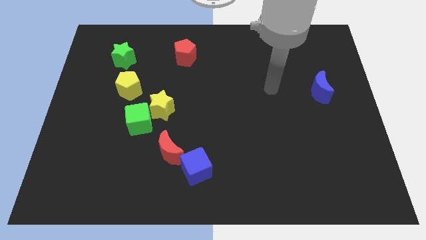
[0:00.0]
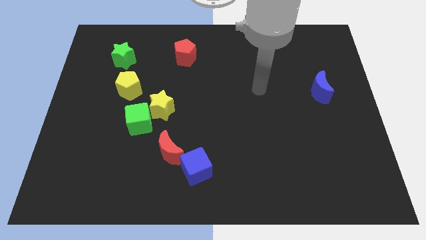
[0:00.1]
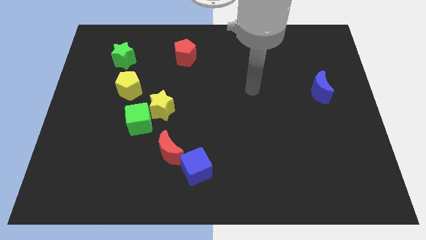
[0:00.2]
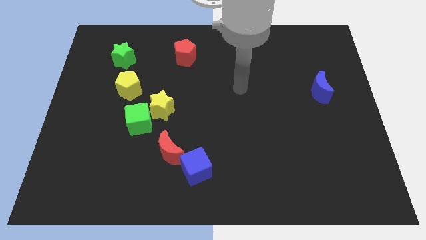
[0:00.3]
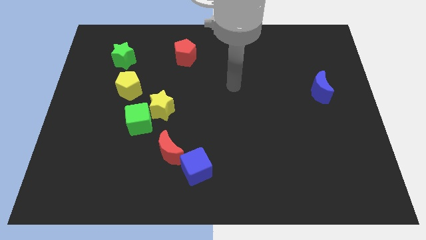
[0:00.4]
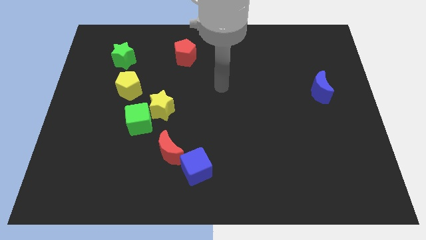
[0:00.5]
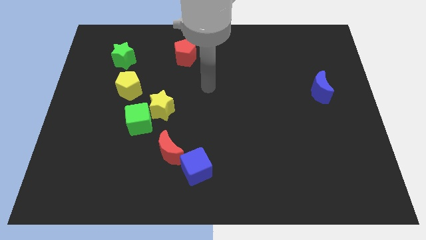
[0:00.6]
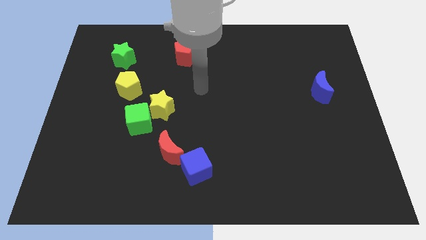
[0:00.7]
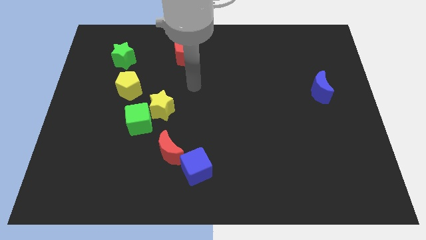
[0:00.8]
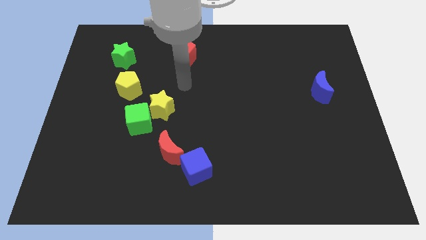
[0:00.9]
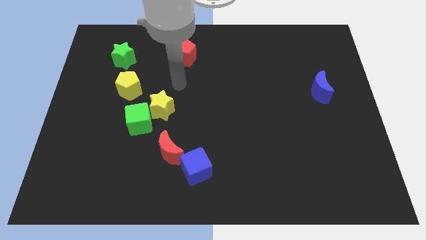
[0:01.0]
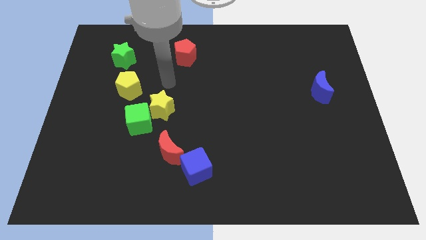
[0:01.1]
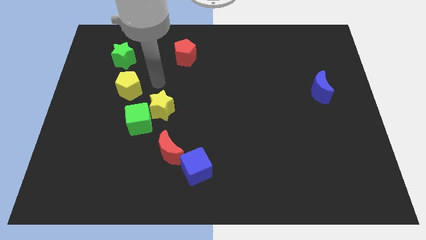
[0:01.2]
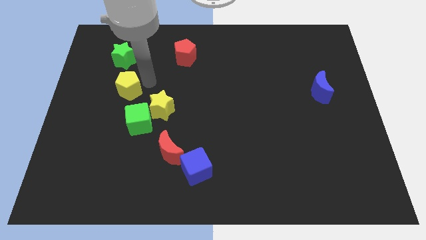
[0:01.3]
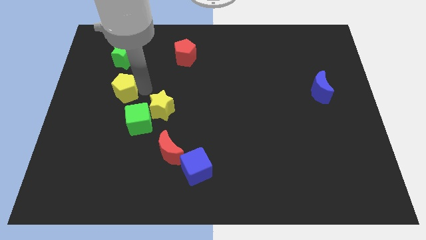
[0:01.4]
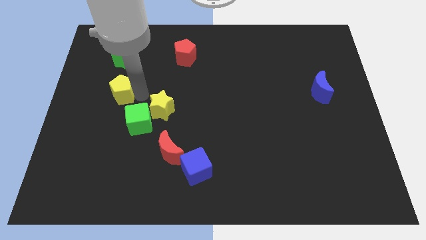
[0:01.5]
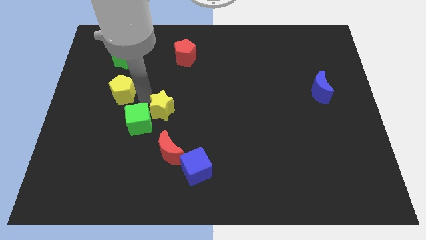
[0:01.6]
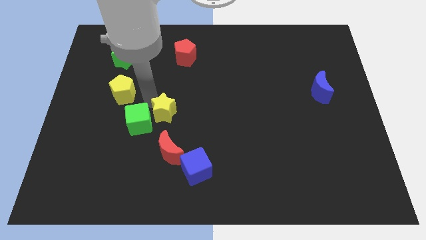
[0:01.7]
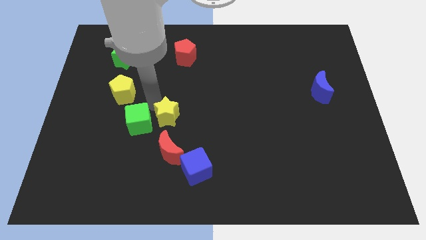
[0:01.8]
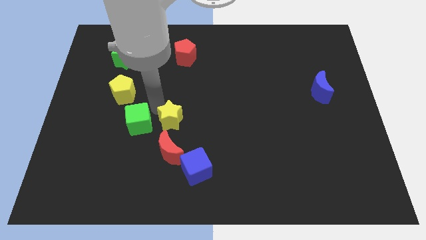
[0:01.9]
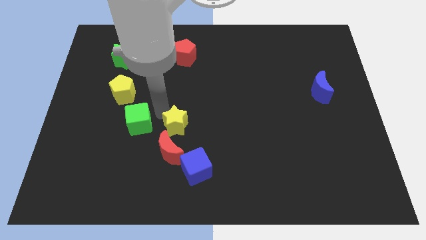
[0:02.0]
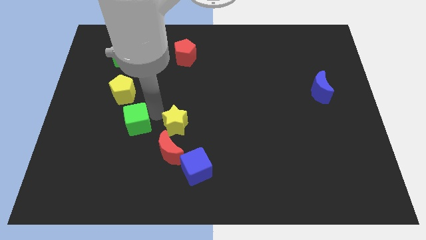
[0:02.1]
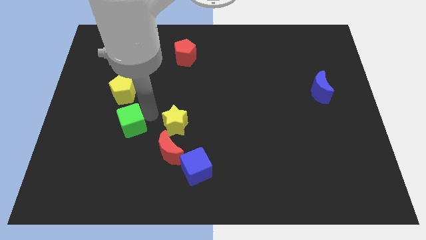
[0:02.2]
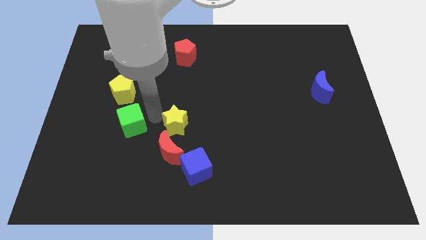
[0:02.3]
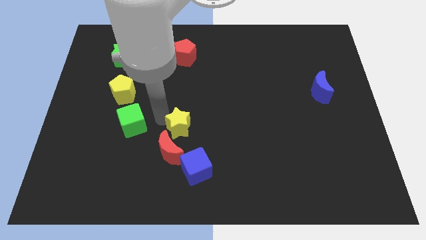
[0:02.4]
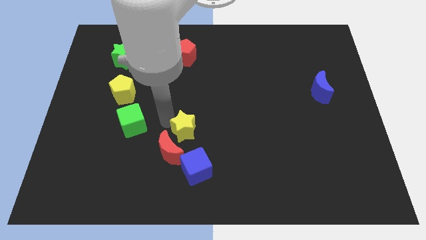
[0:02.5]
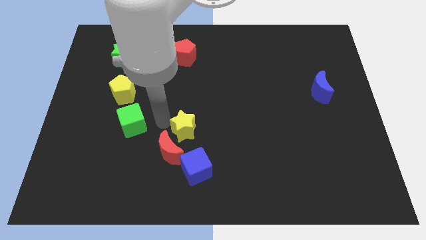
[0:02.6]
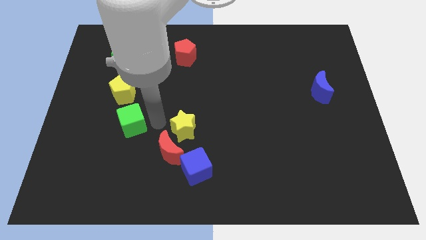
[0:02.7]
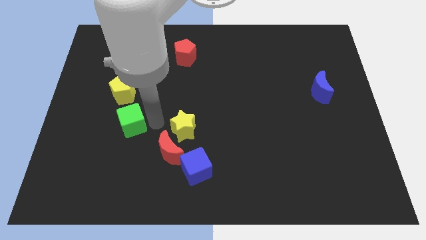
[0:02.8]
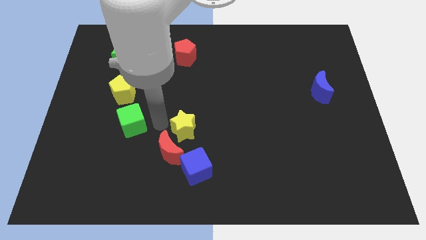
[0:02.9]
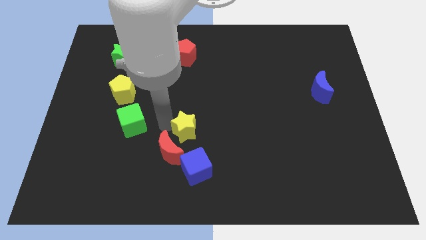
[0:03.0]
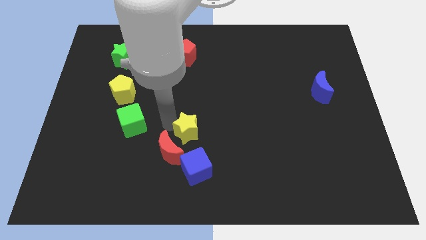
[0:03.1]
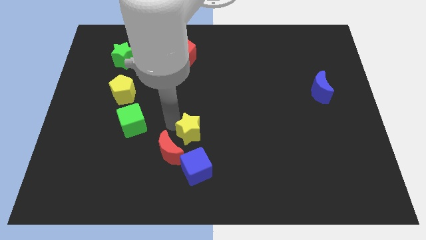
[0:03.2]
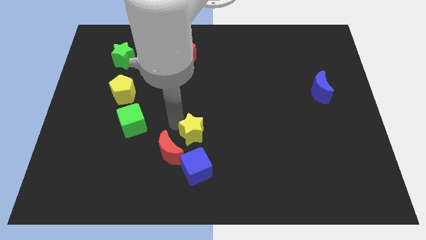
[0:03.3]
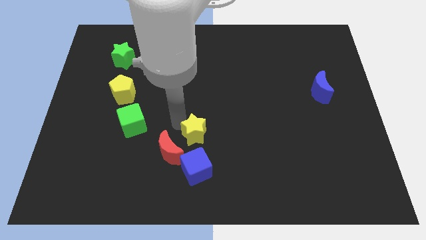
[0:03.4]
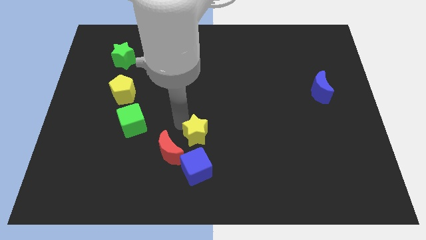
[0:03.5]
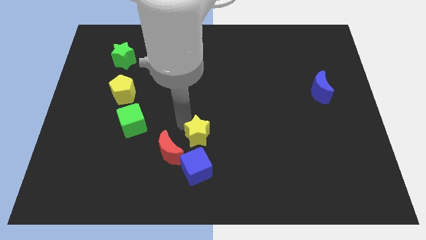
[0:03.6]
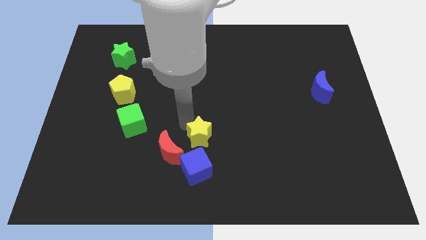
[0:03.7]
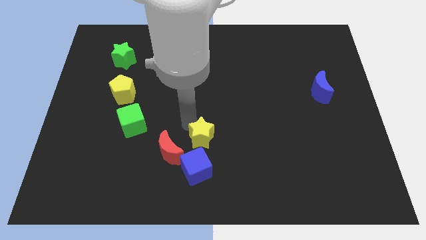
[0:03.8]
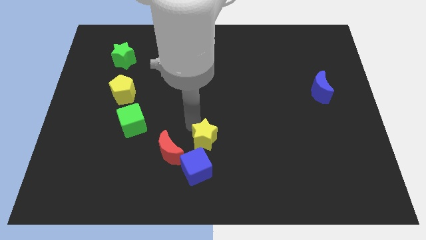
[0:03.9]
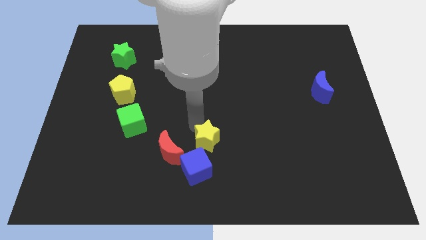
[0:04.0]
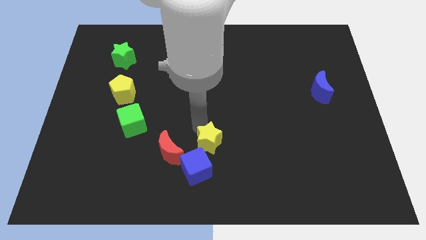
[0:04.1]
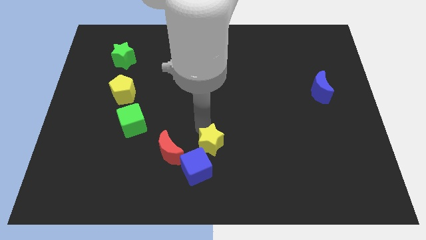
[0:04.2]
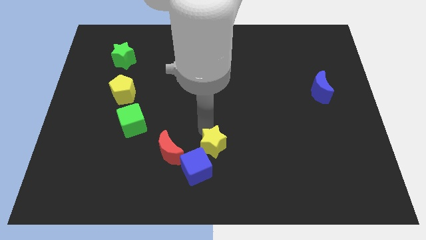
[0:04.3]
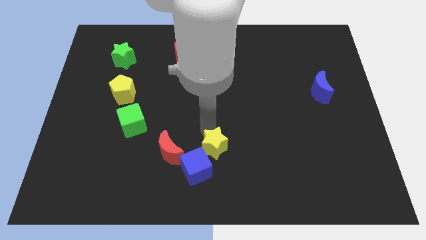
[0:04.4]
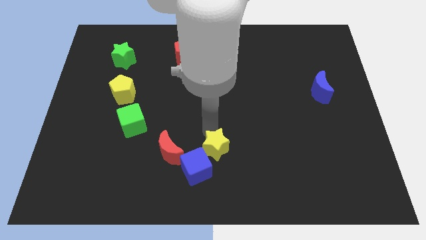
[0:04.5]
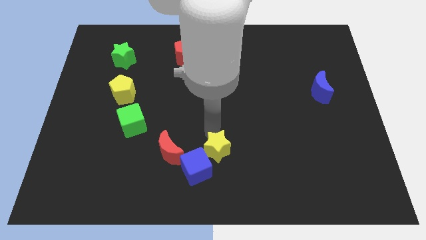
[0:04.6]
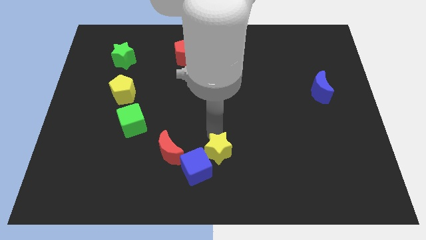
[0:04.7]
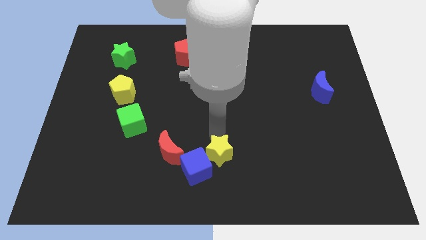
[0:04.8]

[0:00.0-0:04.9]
push the yellow star to the bottom

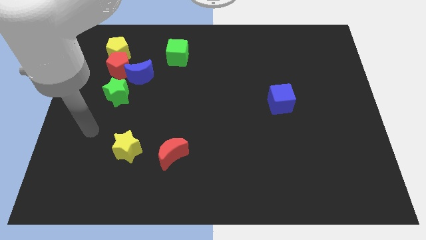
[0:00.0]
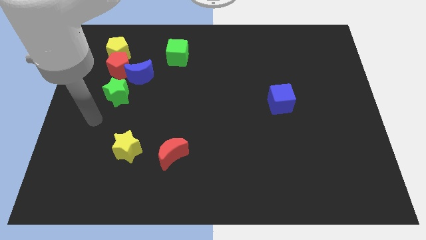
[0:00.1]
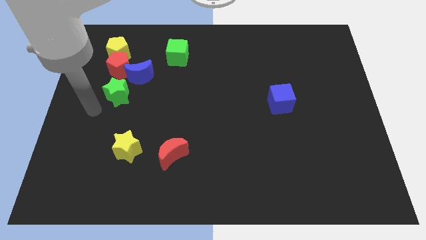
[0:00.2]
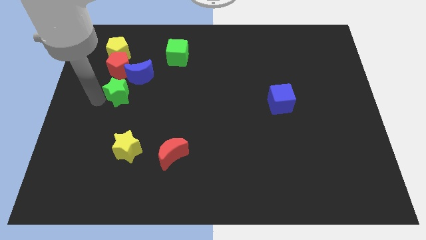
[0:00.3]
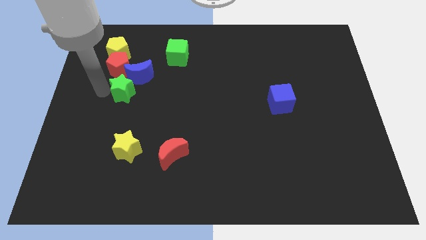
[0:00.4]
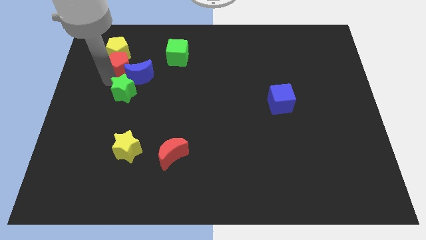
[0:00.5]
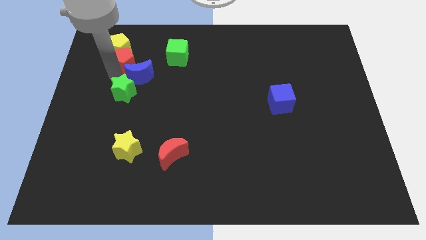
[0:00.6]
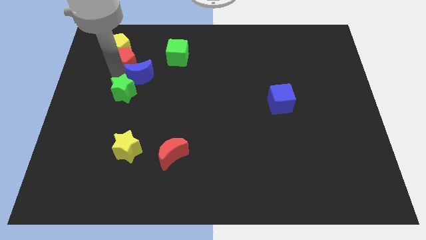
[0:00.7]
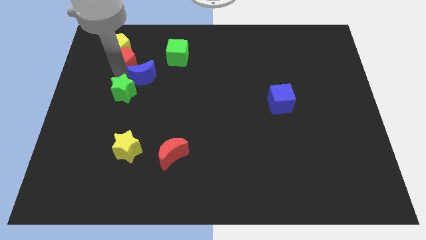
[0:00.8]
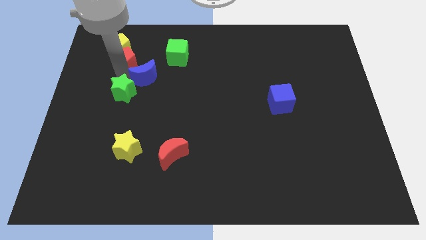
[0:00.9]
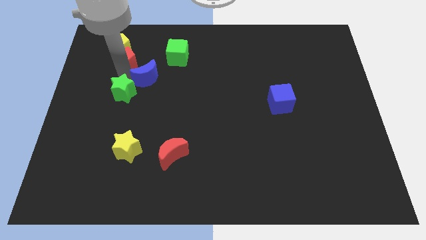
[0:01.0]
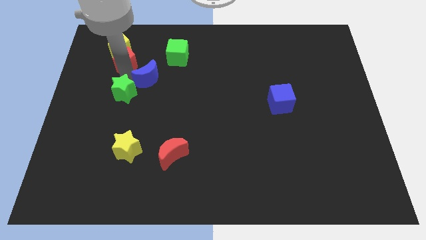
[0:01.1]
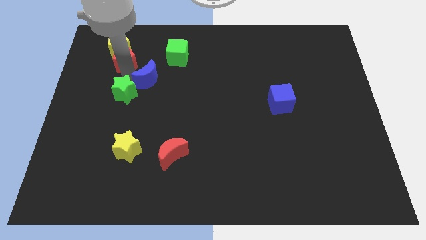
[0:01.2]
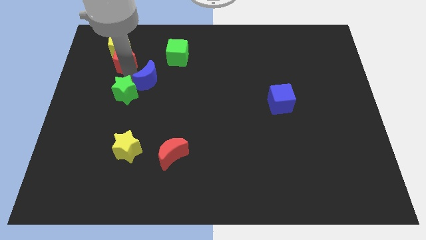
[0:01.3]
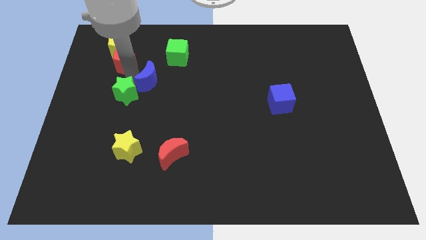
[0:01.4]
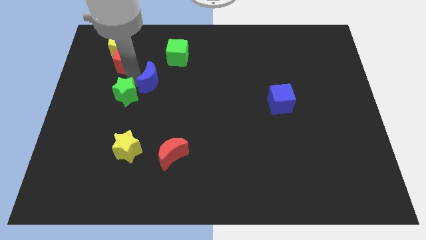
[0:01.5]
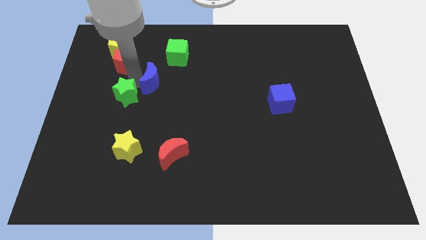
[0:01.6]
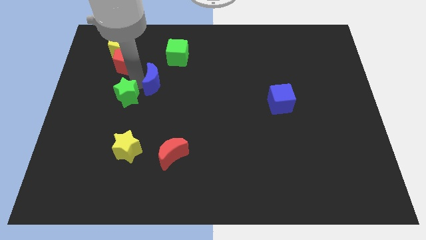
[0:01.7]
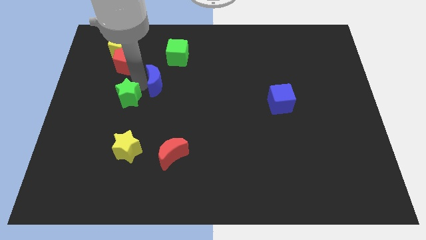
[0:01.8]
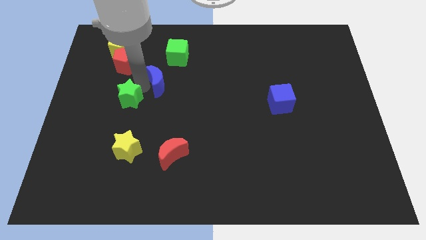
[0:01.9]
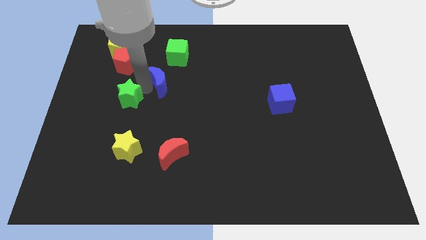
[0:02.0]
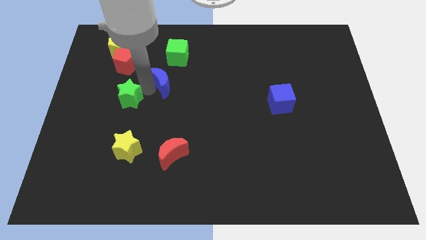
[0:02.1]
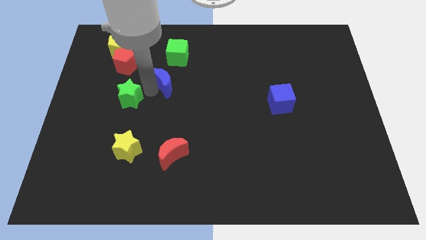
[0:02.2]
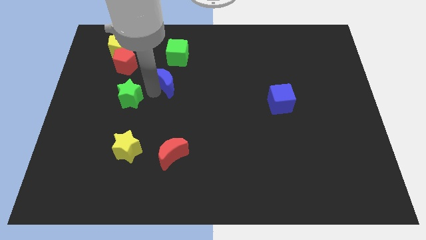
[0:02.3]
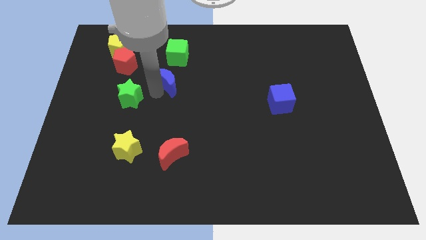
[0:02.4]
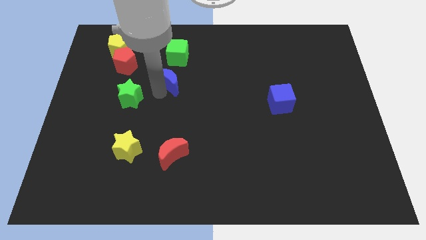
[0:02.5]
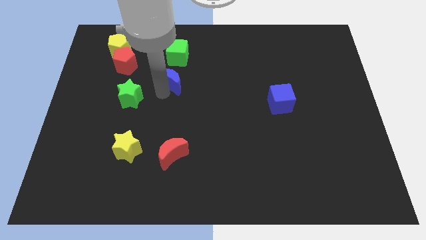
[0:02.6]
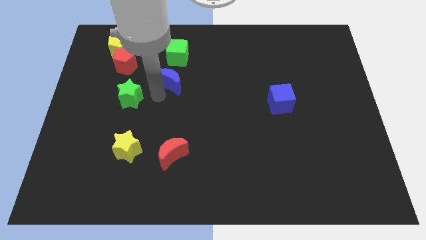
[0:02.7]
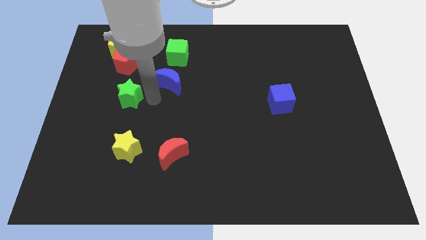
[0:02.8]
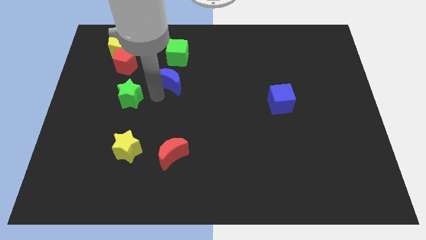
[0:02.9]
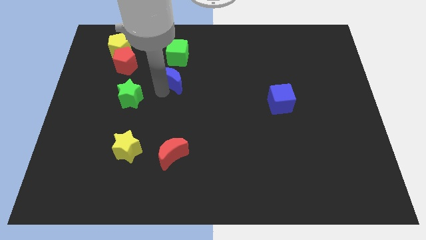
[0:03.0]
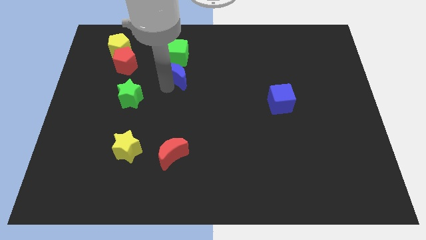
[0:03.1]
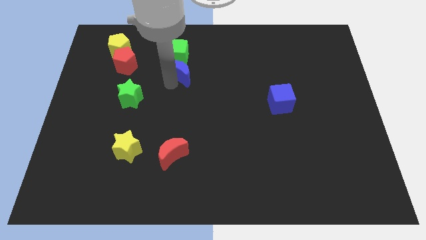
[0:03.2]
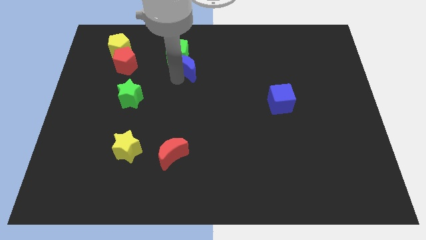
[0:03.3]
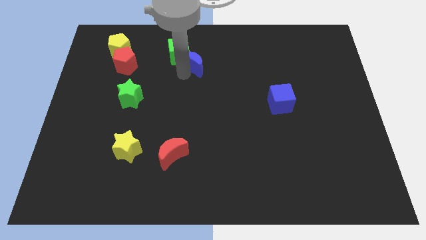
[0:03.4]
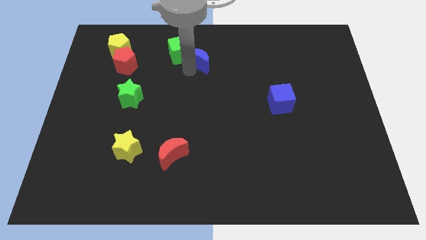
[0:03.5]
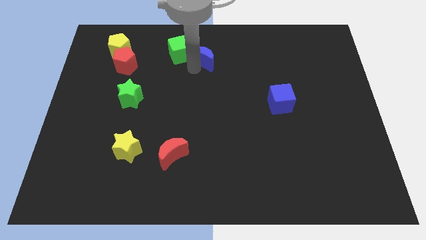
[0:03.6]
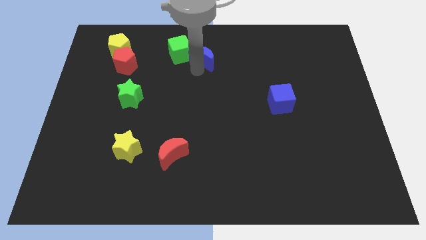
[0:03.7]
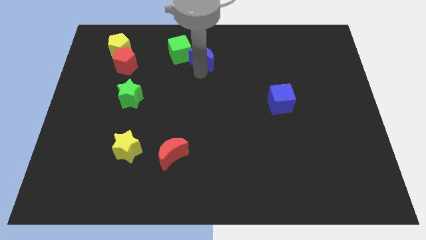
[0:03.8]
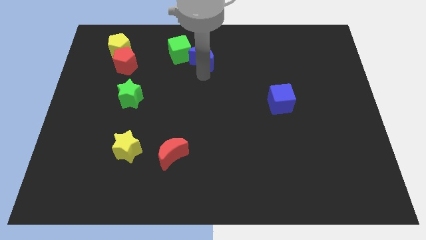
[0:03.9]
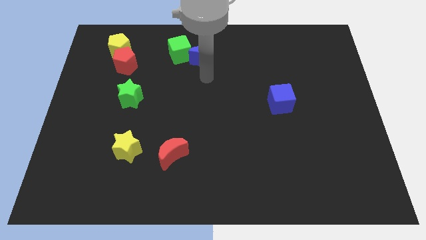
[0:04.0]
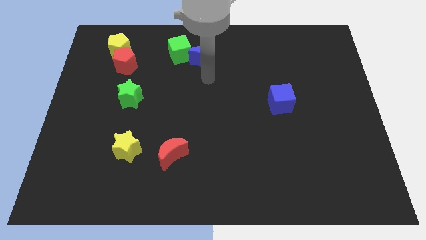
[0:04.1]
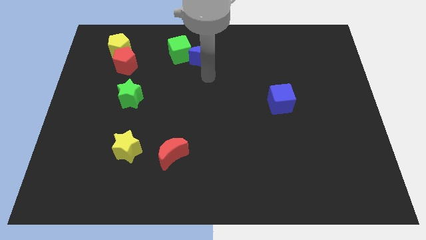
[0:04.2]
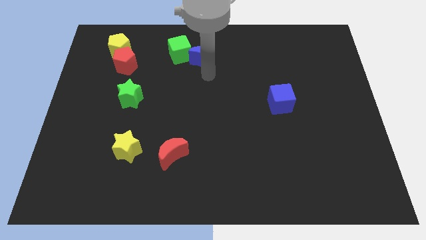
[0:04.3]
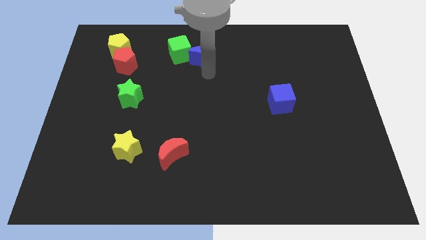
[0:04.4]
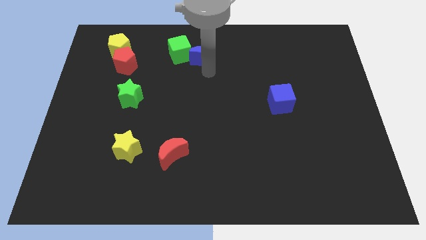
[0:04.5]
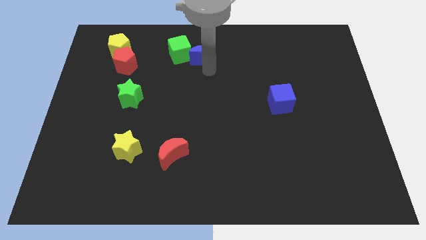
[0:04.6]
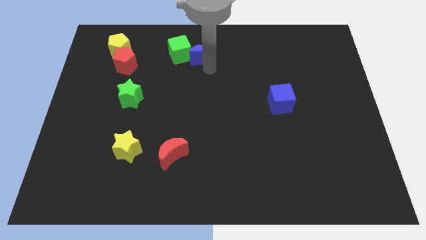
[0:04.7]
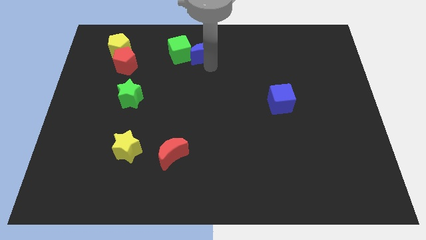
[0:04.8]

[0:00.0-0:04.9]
push the blue moon to the top side
